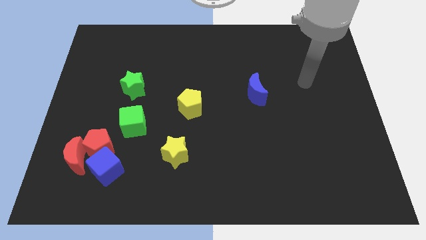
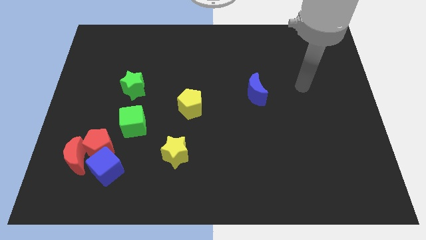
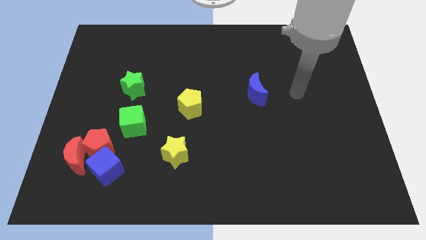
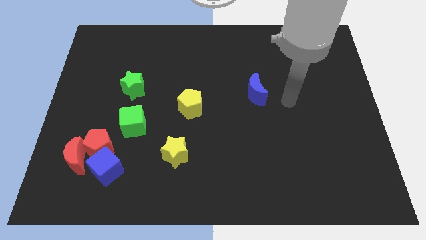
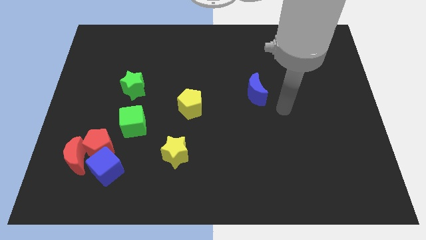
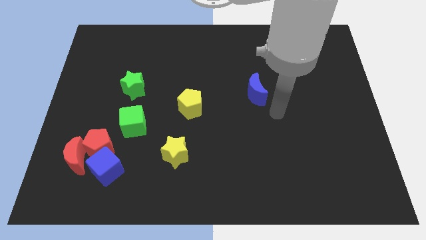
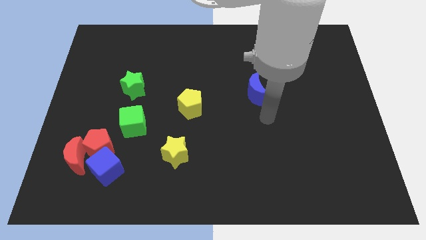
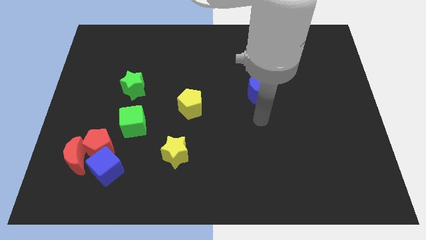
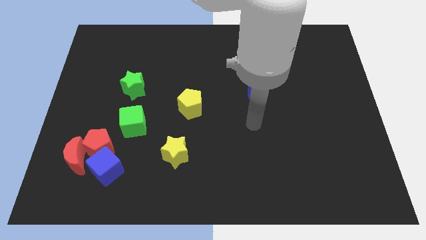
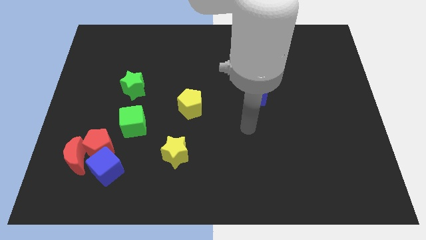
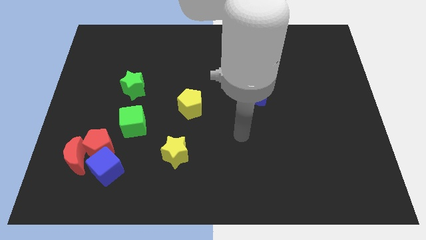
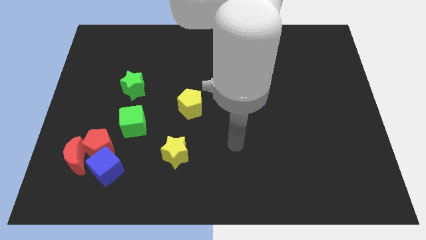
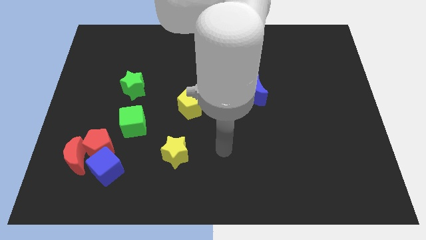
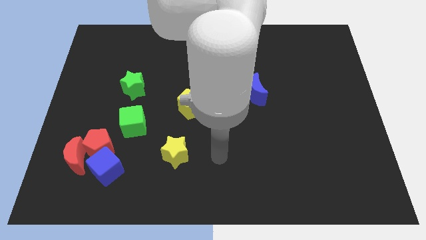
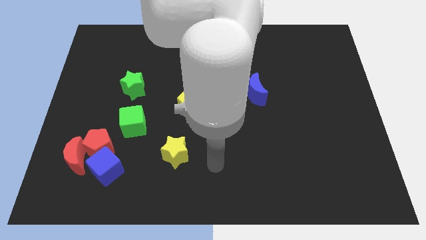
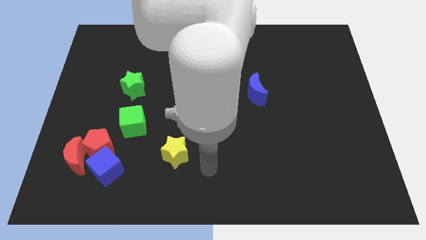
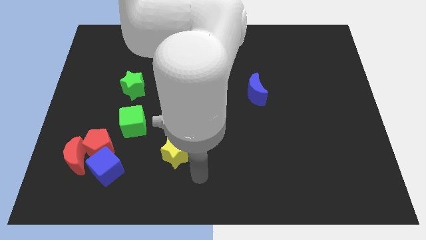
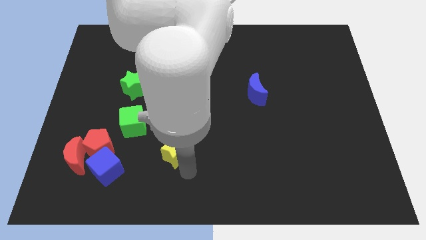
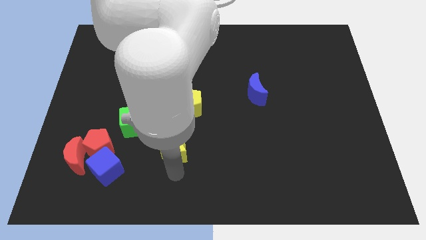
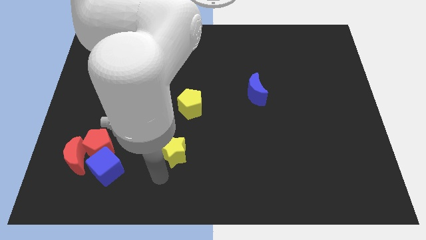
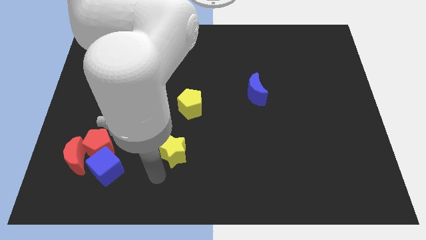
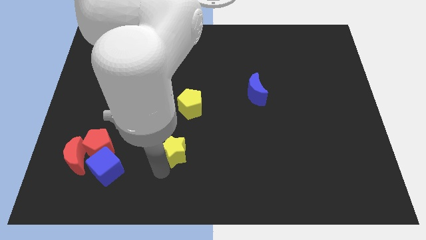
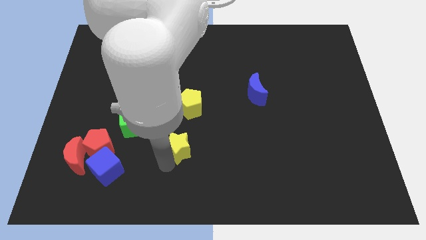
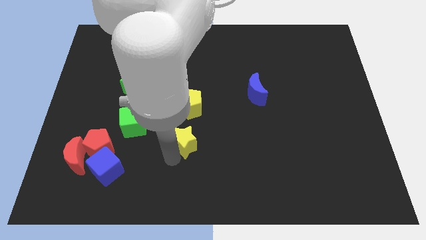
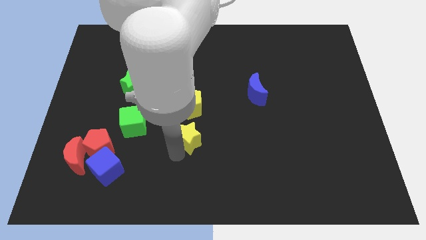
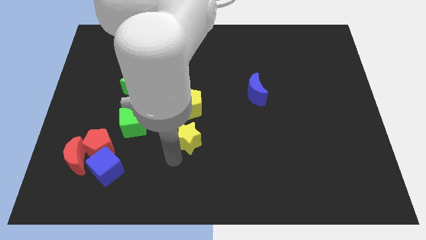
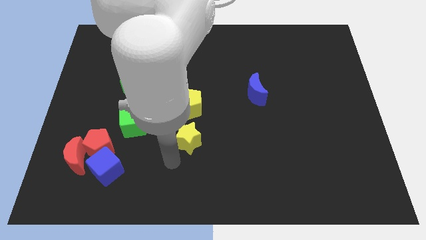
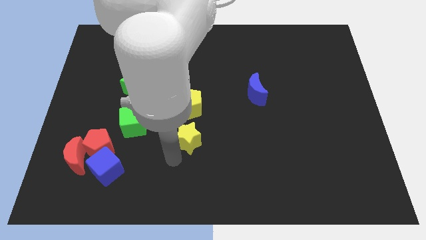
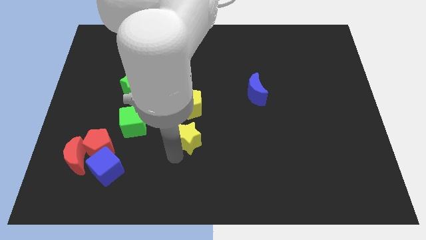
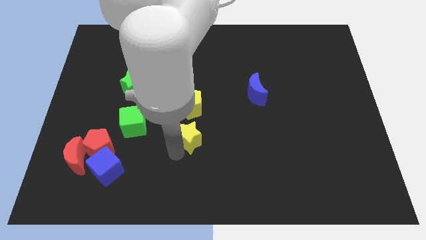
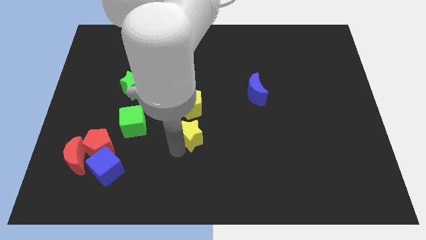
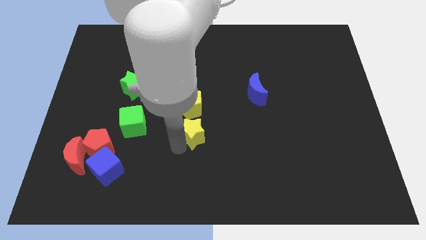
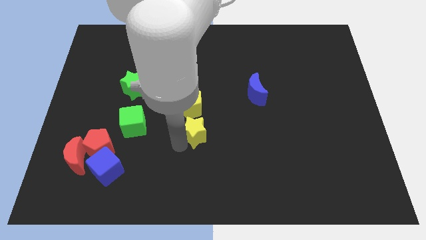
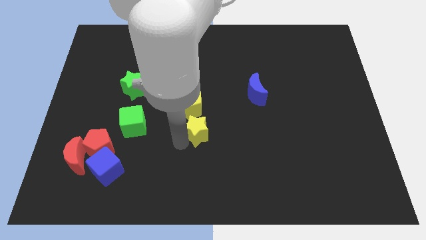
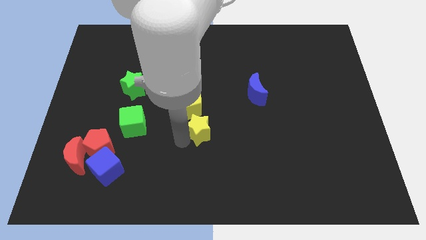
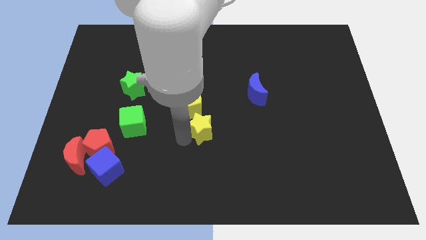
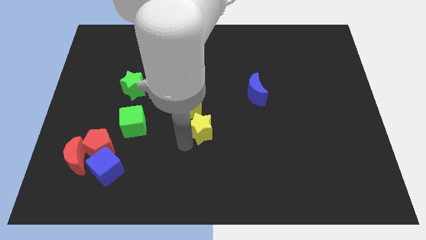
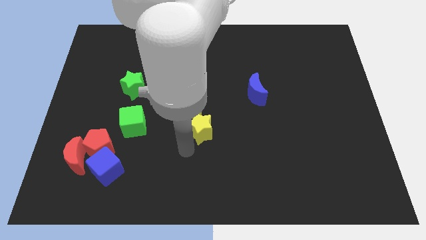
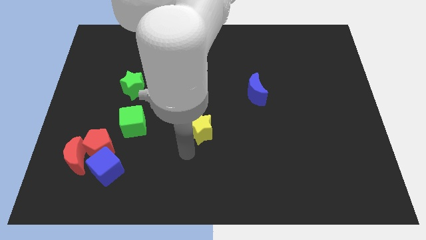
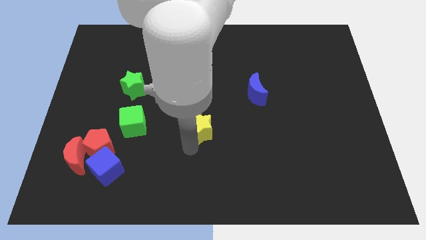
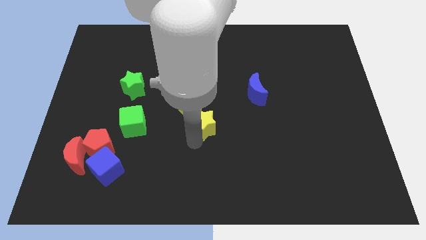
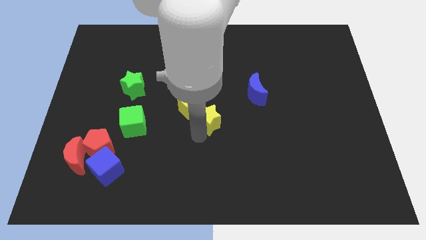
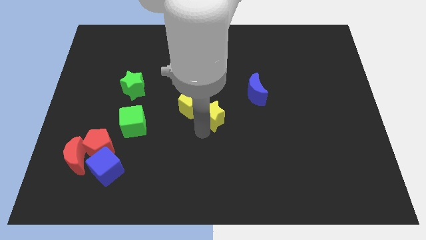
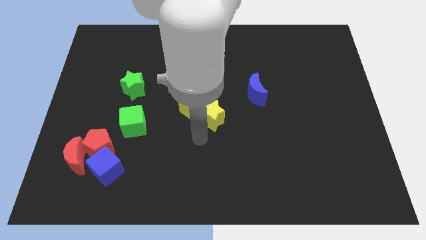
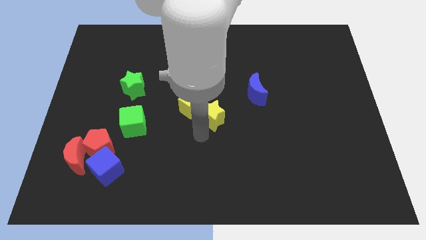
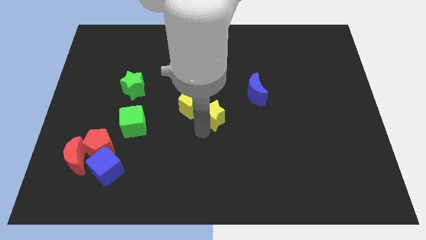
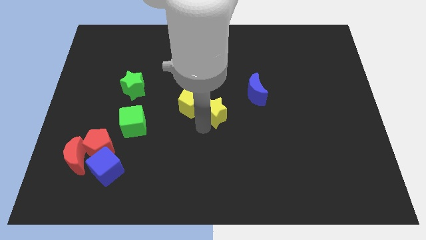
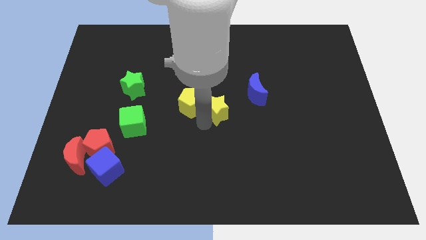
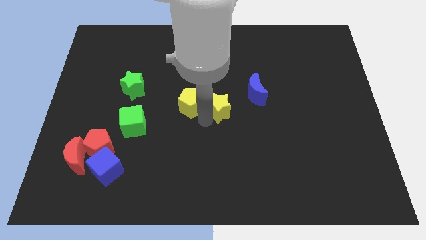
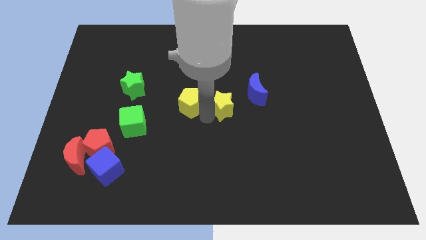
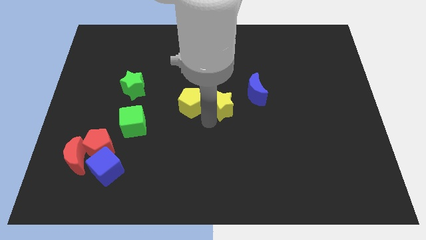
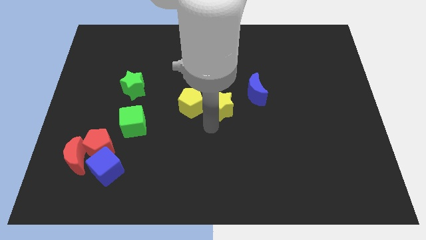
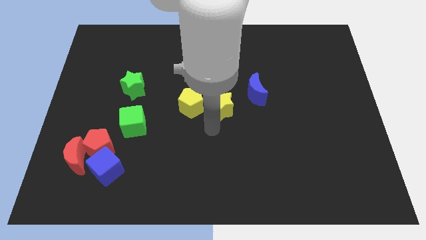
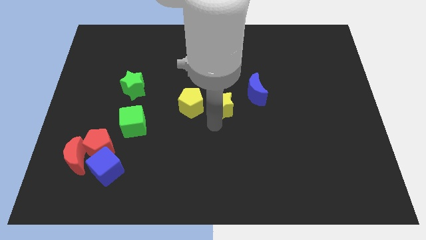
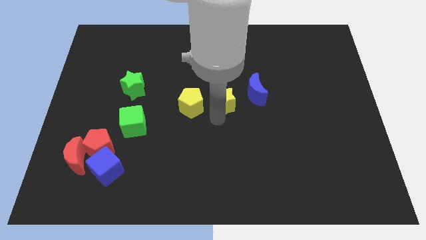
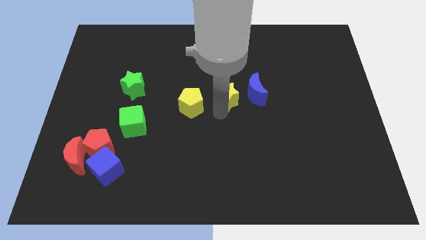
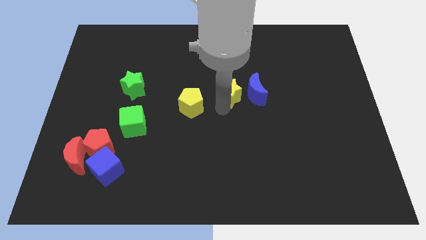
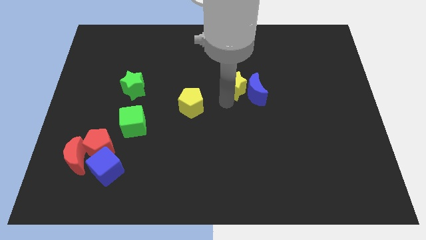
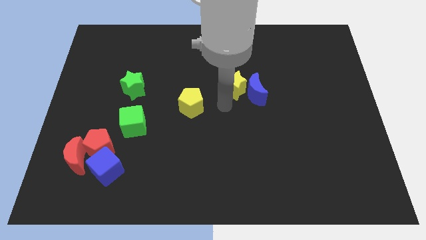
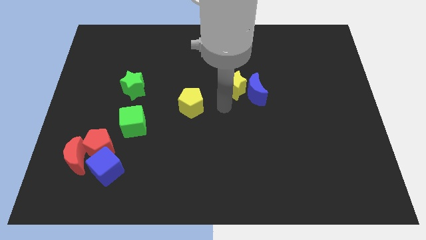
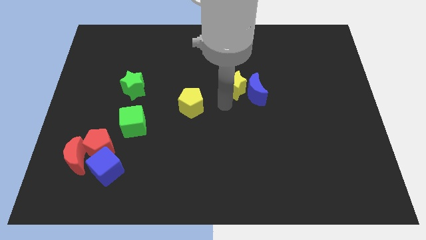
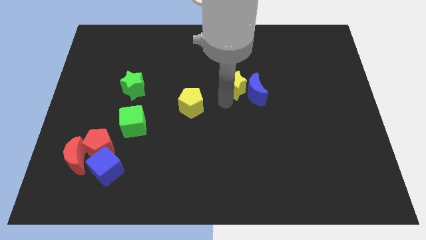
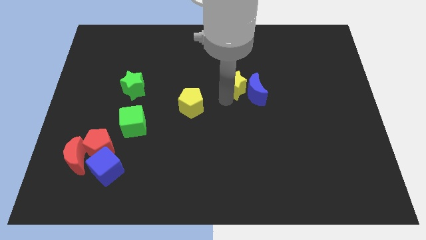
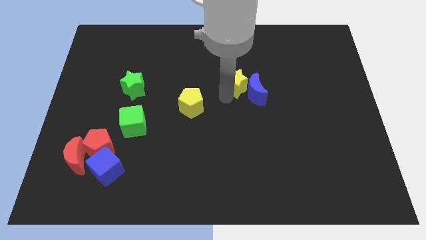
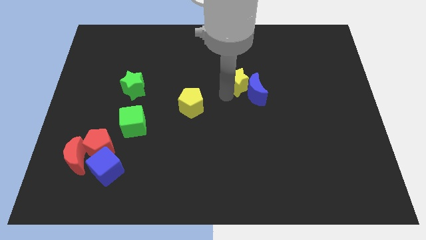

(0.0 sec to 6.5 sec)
put the yellow star to the top side of the blue moon

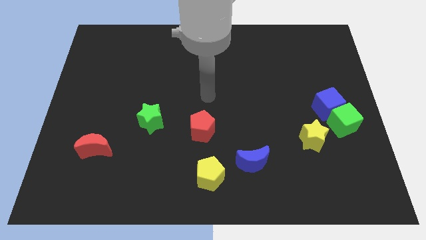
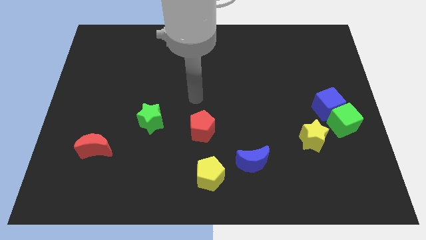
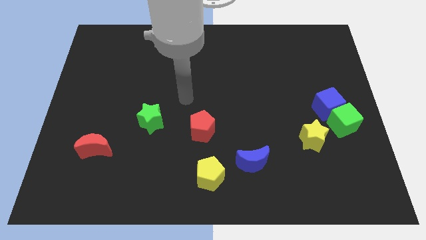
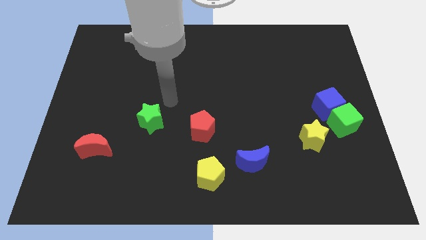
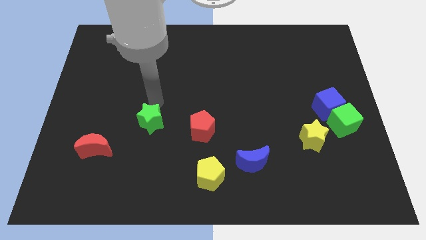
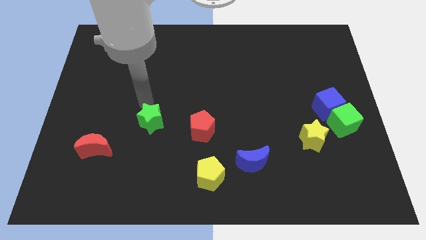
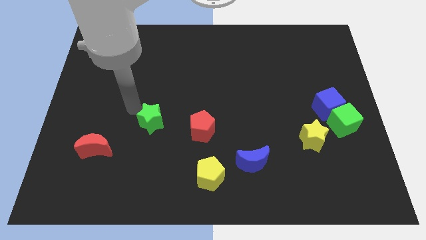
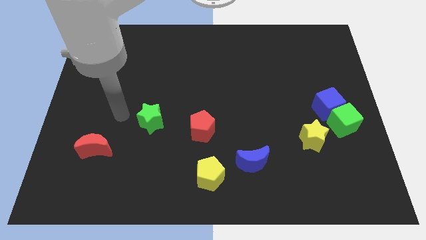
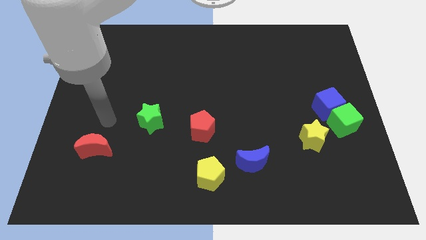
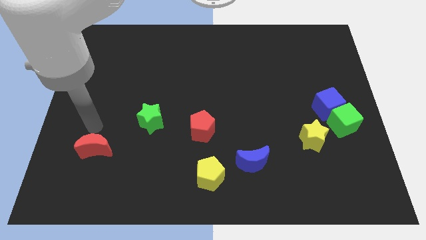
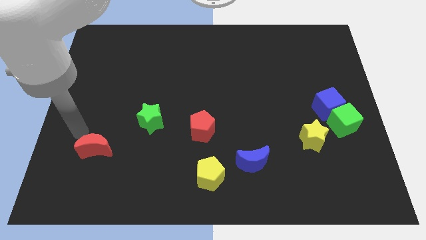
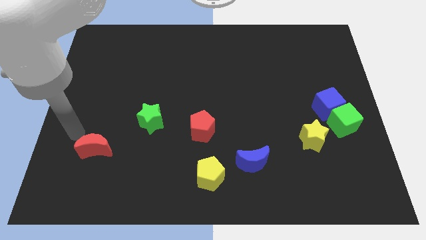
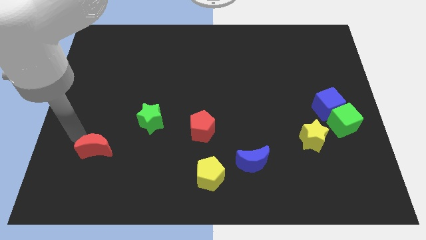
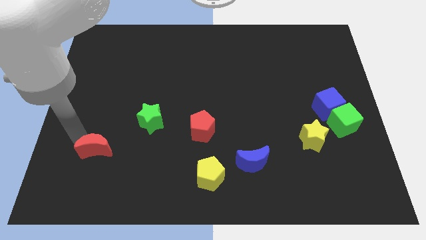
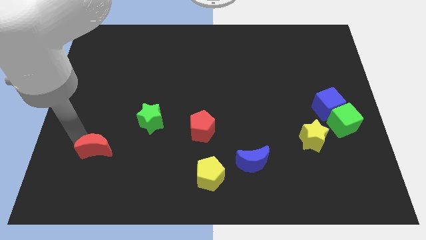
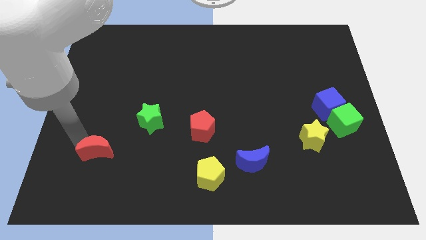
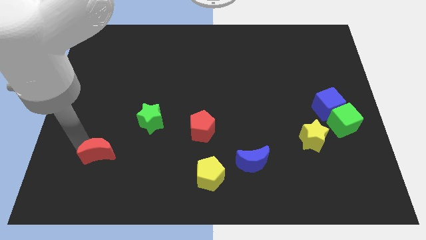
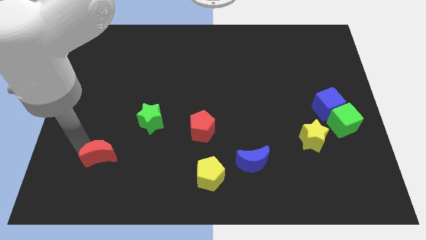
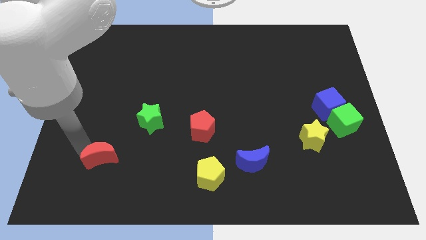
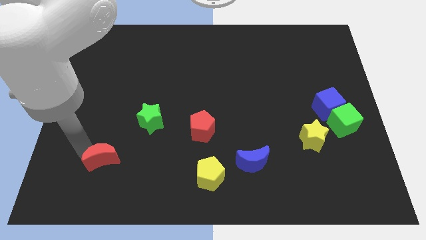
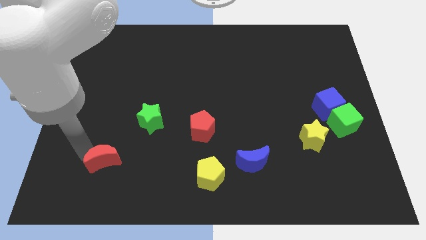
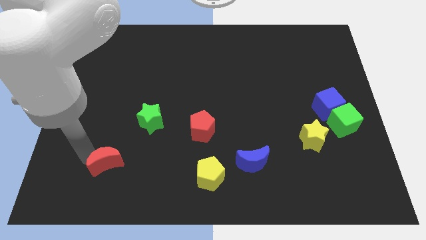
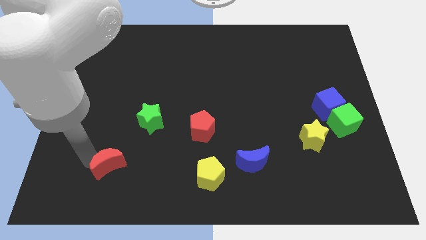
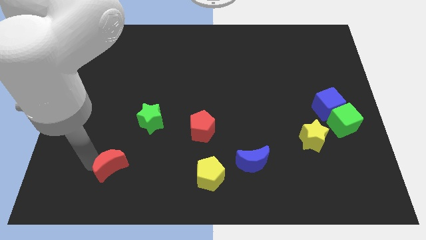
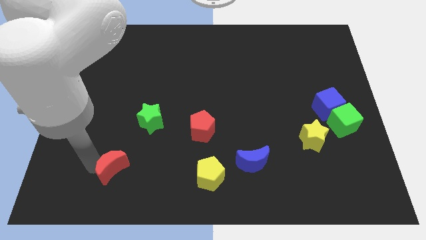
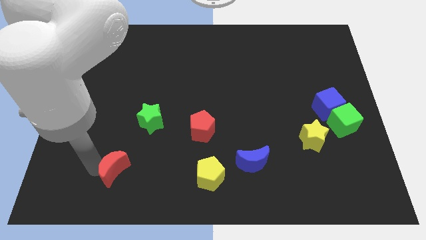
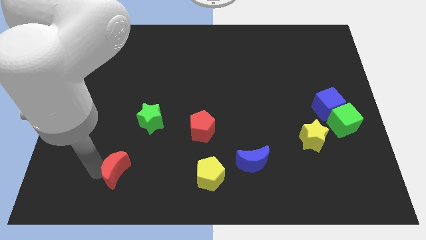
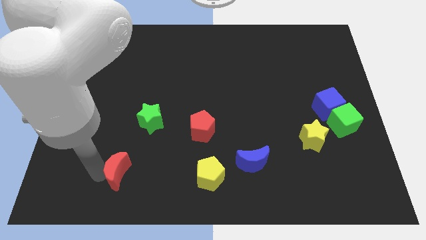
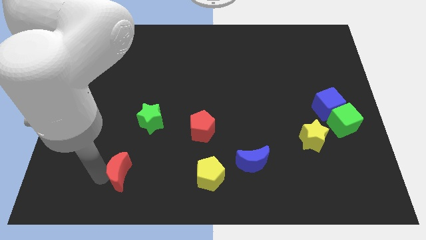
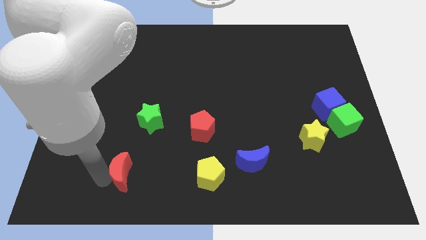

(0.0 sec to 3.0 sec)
slide the red moon to the bottom of the green star
